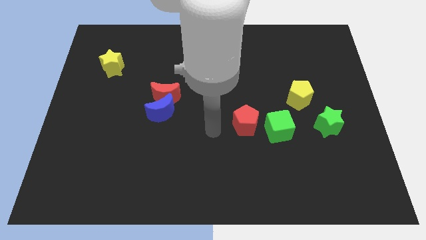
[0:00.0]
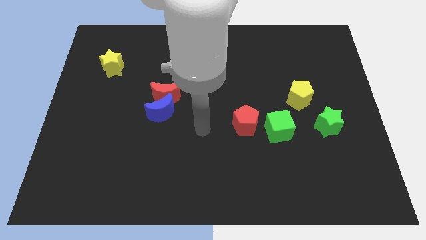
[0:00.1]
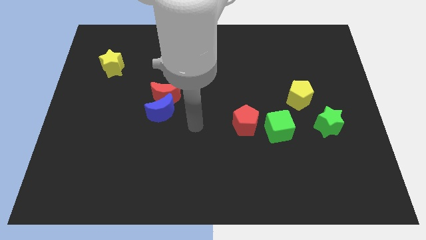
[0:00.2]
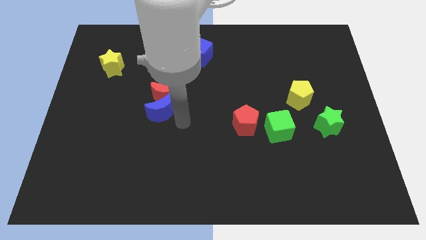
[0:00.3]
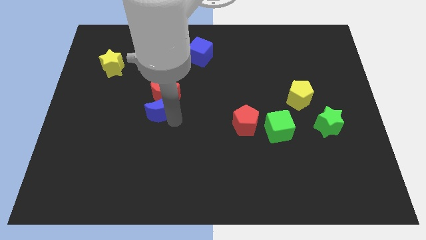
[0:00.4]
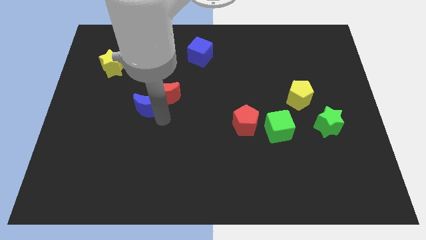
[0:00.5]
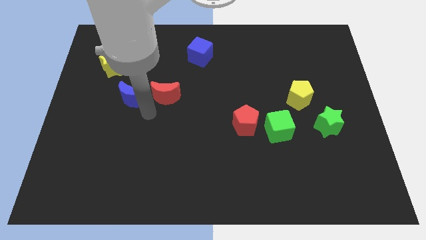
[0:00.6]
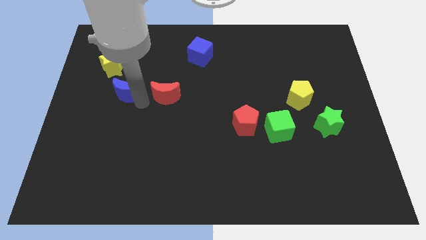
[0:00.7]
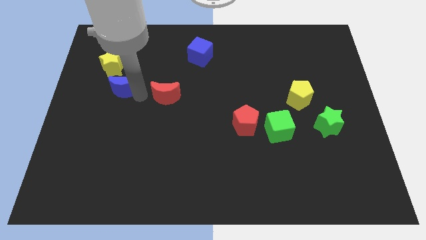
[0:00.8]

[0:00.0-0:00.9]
move the red moon away from the blue moon

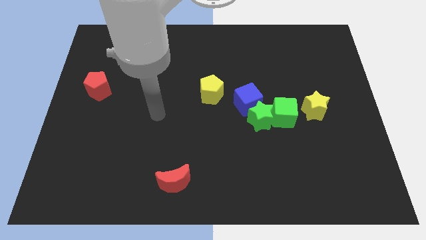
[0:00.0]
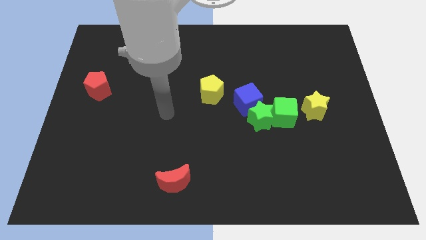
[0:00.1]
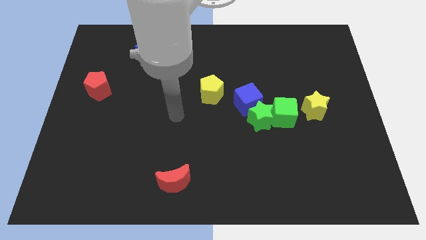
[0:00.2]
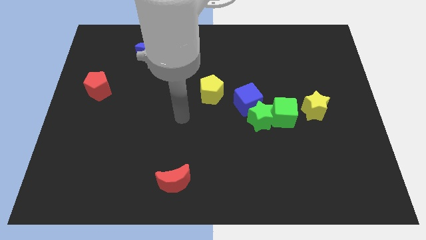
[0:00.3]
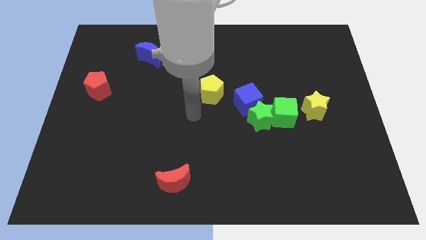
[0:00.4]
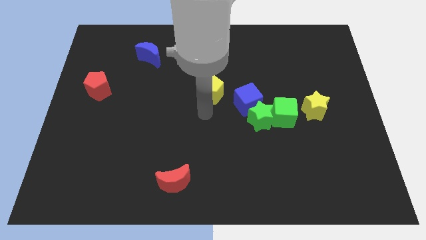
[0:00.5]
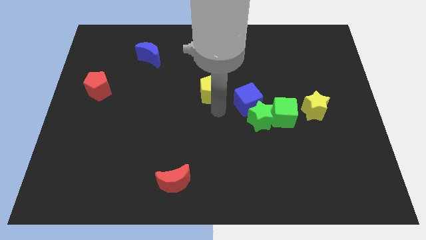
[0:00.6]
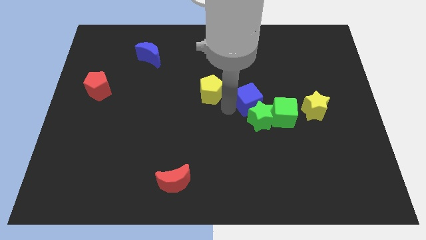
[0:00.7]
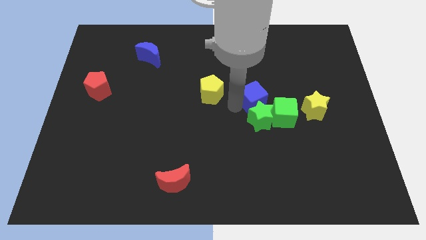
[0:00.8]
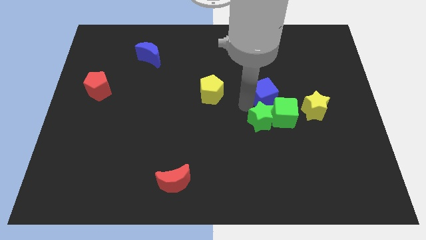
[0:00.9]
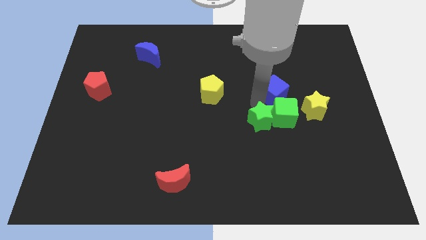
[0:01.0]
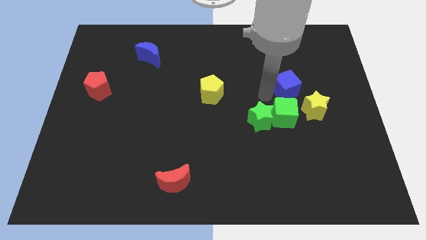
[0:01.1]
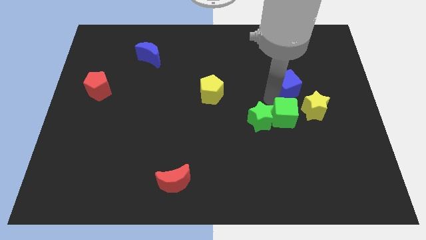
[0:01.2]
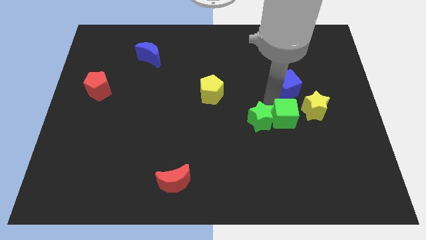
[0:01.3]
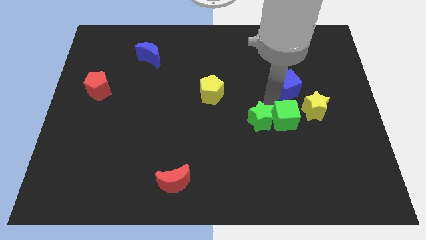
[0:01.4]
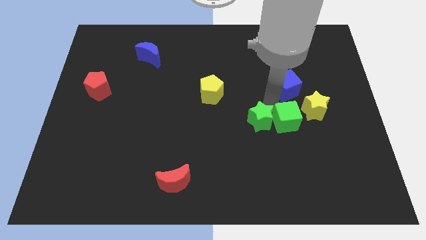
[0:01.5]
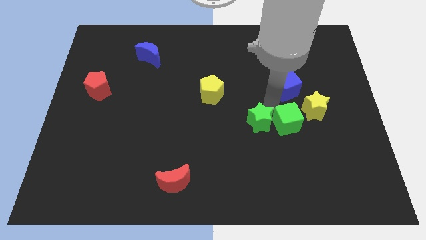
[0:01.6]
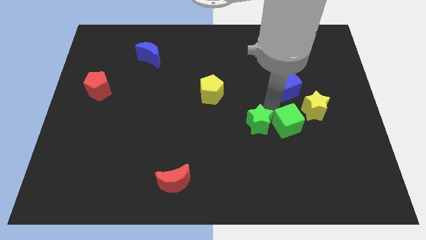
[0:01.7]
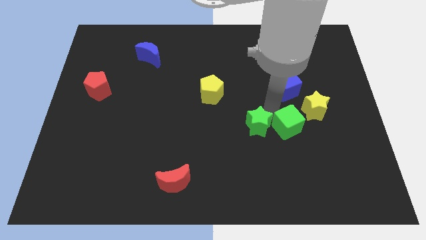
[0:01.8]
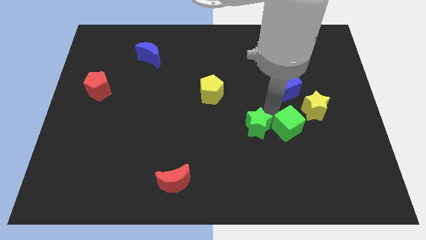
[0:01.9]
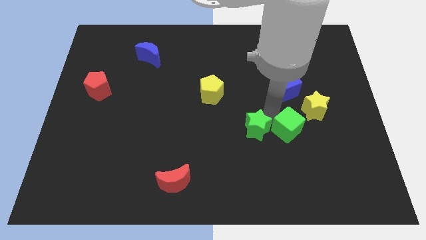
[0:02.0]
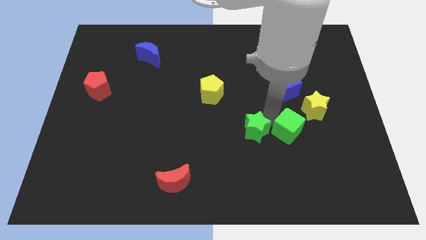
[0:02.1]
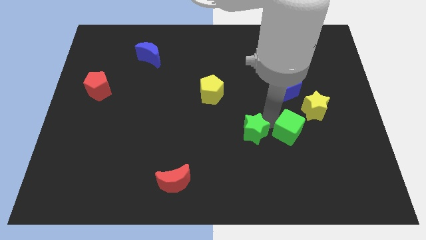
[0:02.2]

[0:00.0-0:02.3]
separate the green star from the blue cube and green cube

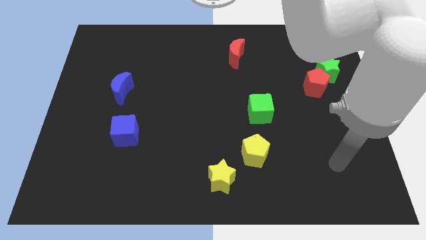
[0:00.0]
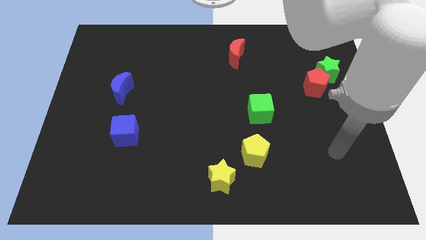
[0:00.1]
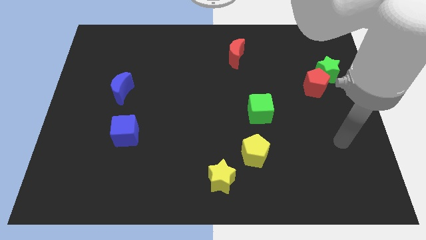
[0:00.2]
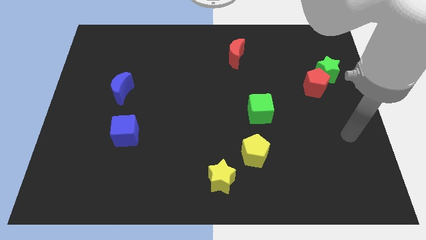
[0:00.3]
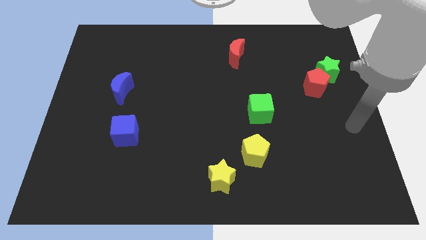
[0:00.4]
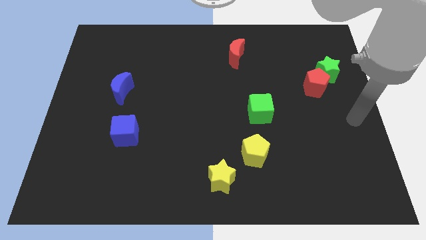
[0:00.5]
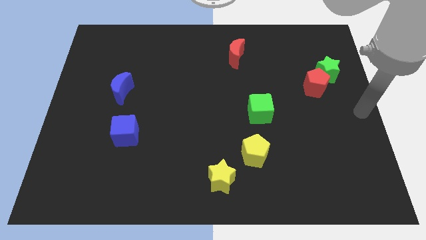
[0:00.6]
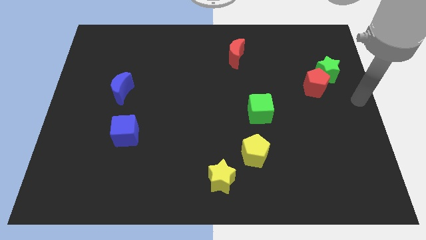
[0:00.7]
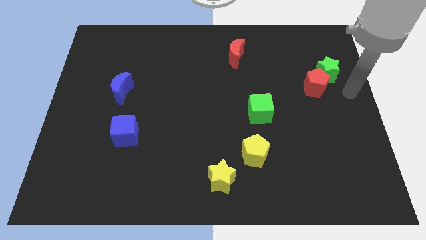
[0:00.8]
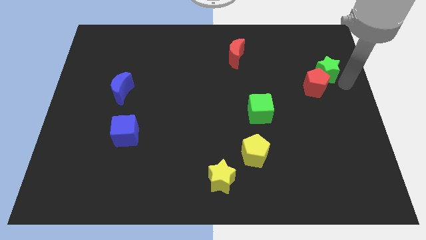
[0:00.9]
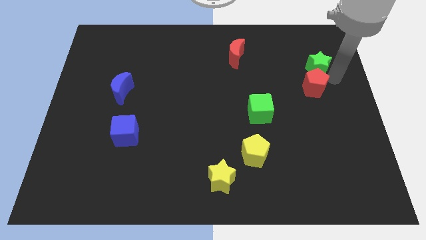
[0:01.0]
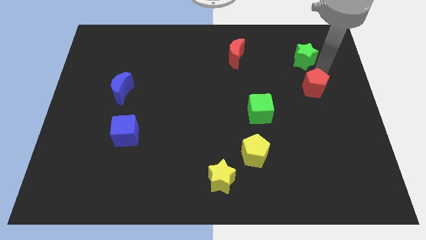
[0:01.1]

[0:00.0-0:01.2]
move the red pentagon away from the green star

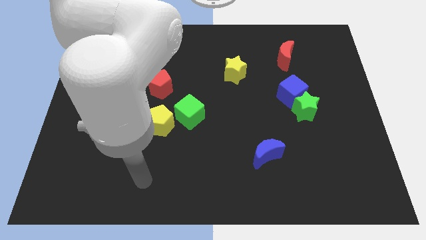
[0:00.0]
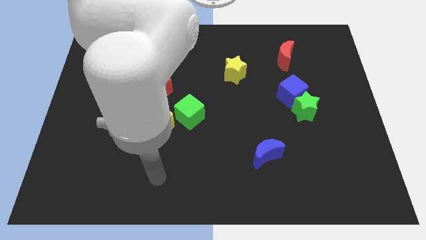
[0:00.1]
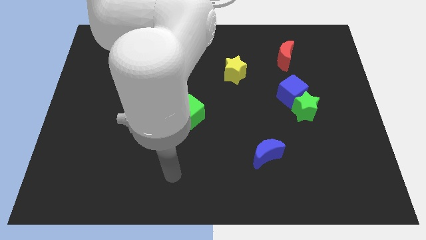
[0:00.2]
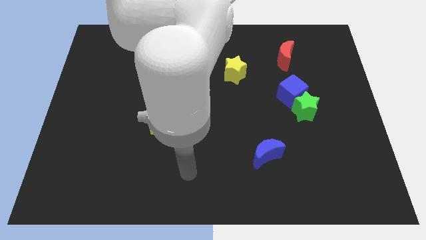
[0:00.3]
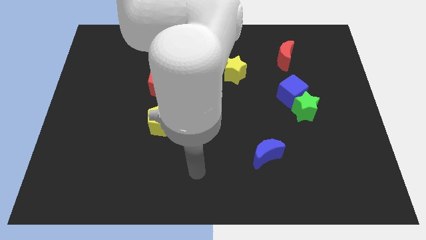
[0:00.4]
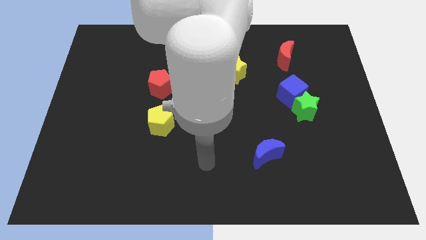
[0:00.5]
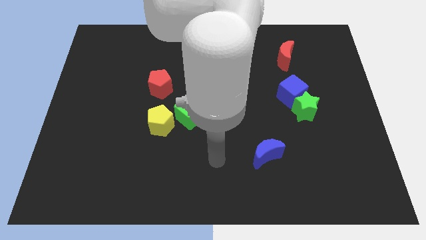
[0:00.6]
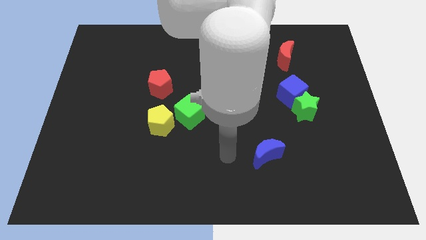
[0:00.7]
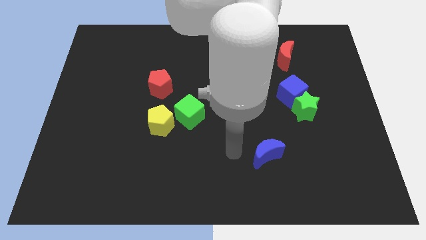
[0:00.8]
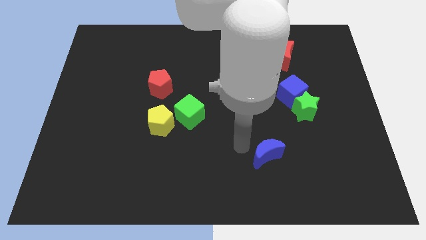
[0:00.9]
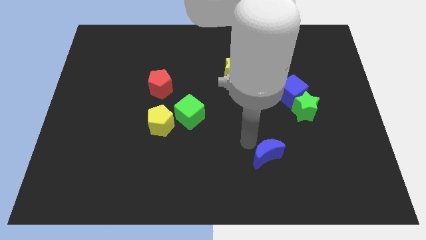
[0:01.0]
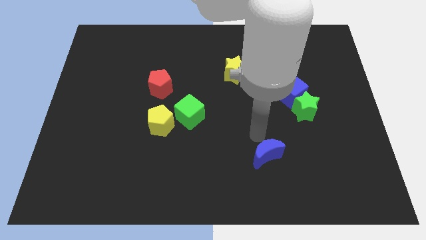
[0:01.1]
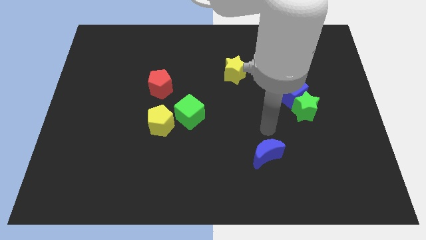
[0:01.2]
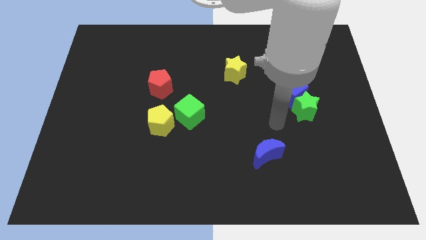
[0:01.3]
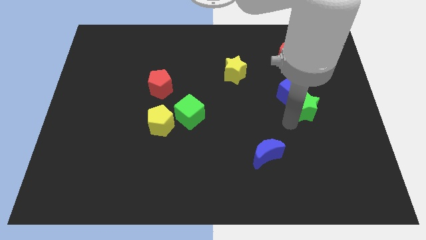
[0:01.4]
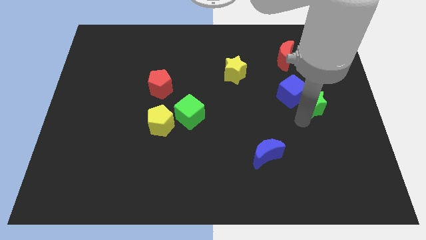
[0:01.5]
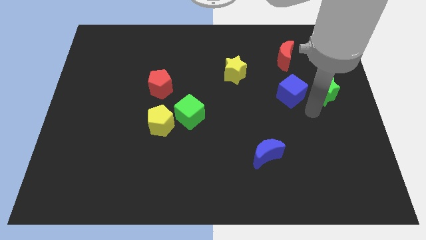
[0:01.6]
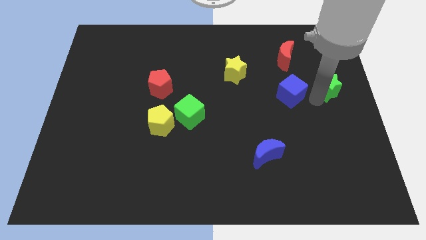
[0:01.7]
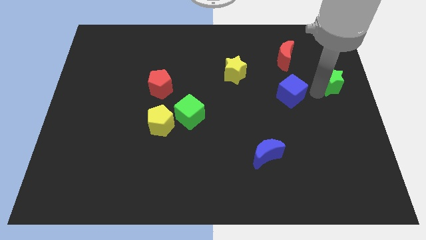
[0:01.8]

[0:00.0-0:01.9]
move the blue cube away from the green star

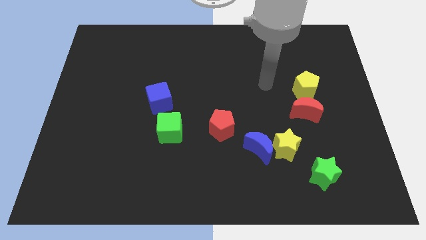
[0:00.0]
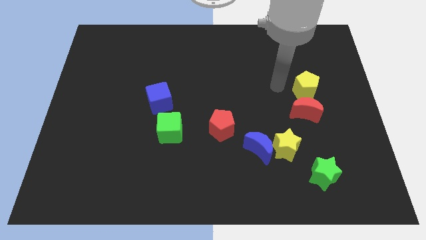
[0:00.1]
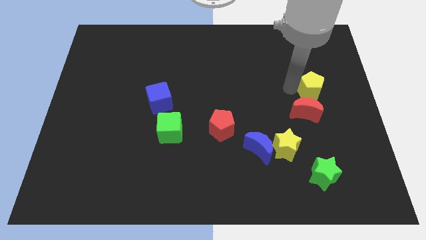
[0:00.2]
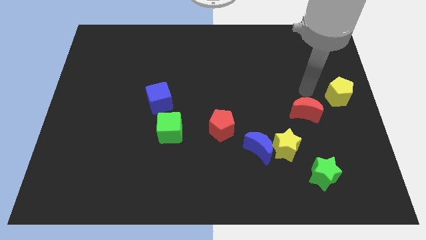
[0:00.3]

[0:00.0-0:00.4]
move the red moon away from the yellow pentagon

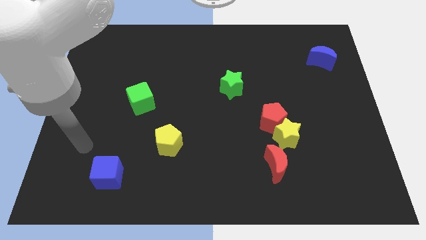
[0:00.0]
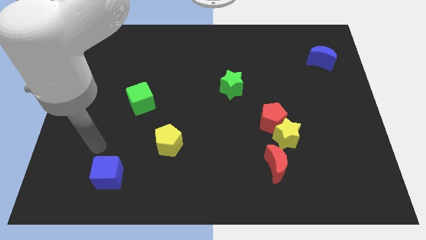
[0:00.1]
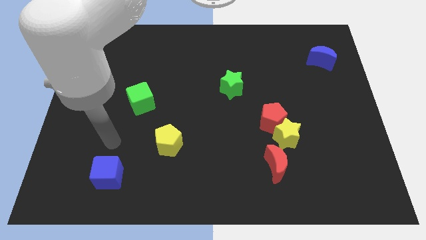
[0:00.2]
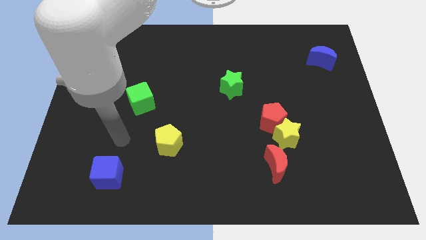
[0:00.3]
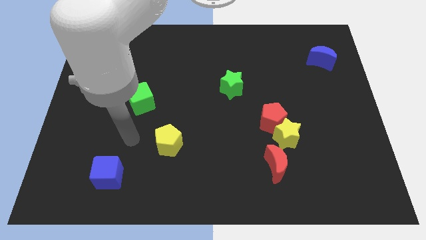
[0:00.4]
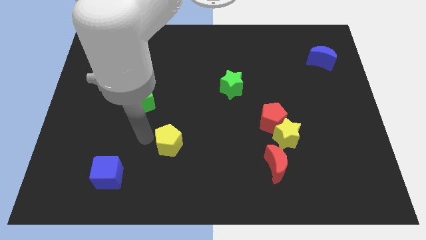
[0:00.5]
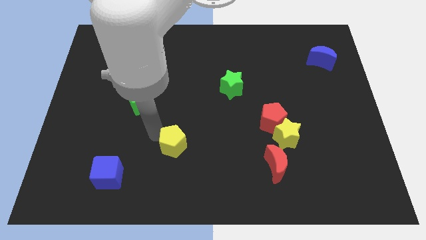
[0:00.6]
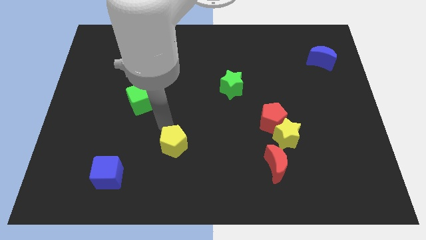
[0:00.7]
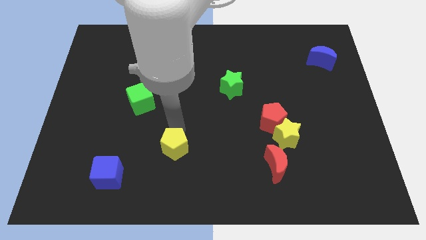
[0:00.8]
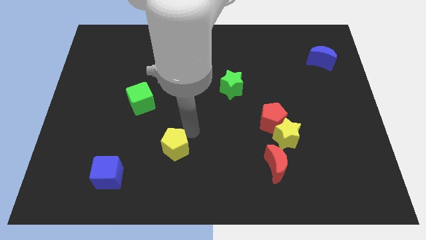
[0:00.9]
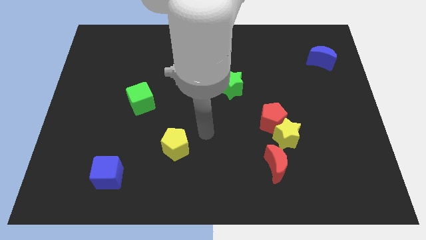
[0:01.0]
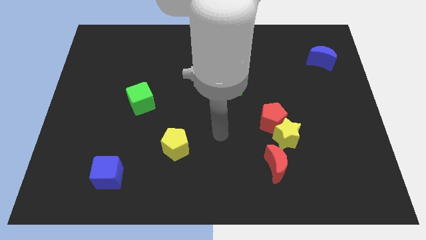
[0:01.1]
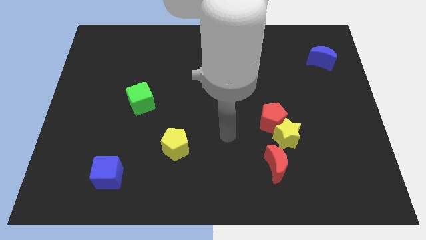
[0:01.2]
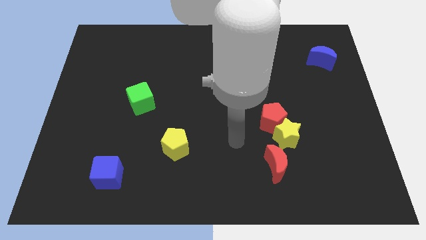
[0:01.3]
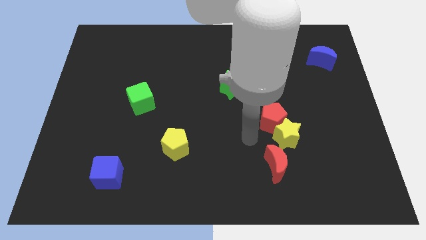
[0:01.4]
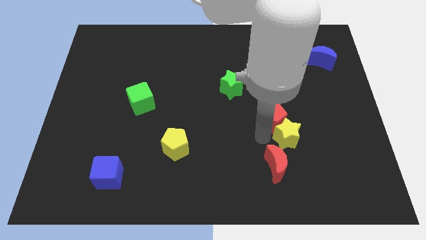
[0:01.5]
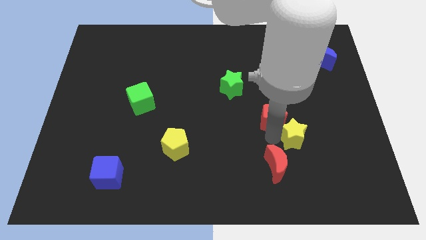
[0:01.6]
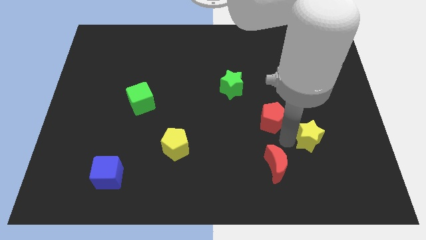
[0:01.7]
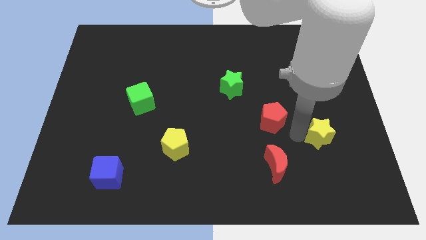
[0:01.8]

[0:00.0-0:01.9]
move the red pentagon away from the yellow star

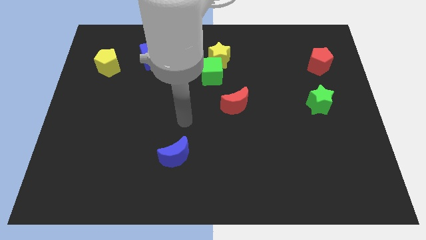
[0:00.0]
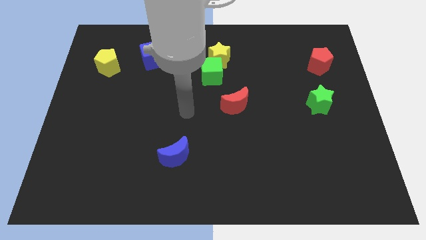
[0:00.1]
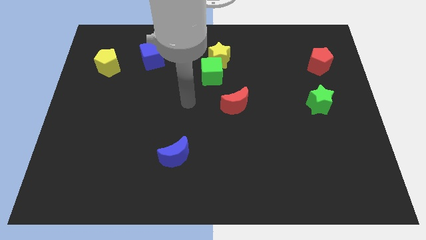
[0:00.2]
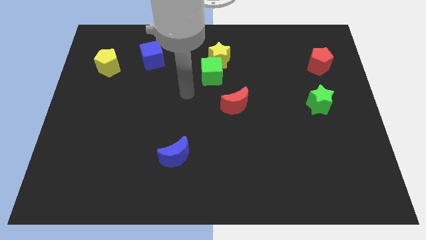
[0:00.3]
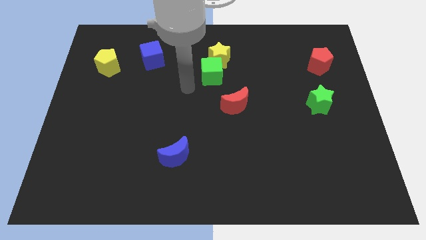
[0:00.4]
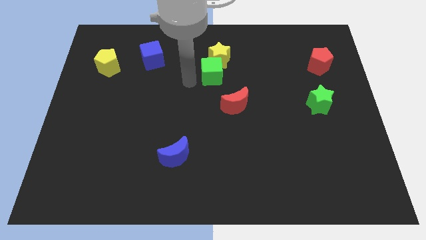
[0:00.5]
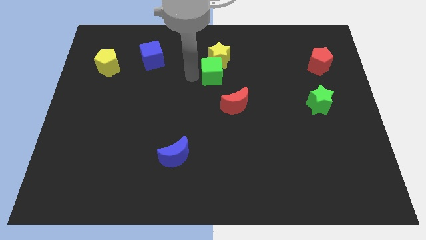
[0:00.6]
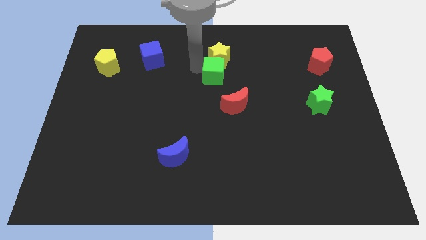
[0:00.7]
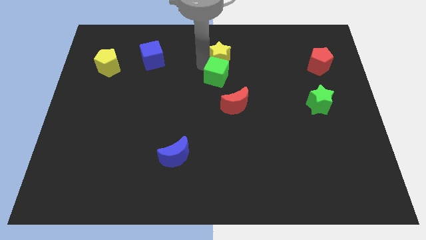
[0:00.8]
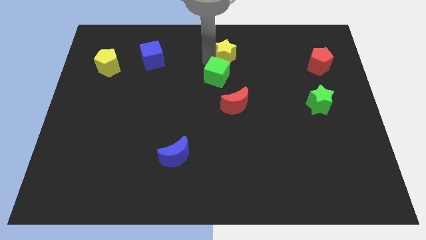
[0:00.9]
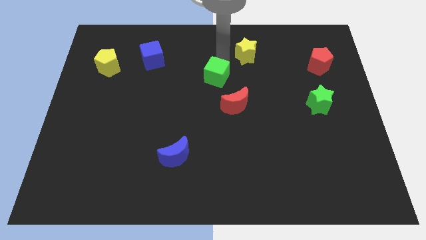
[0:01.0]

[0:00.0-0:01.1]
pull the green cube apart from the yellow star
